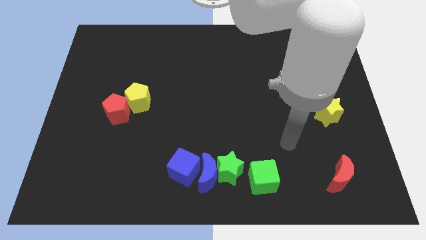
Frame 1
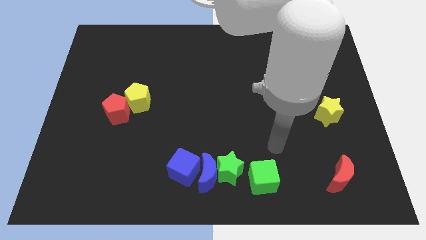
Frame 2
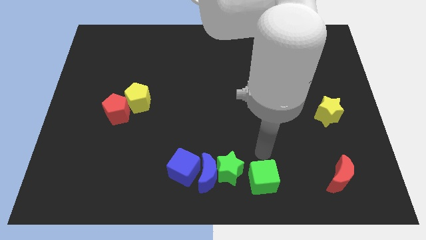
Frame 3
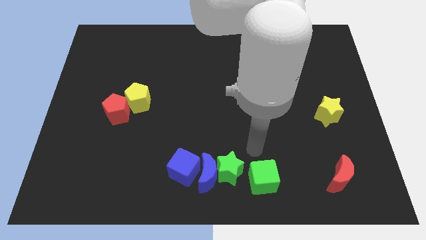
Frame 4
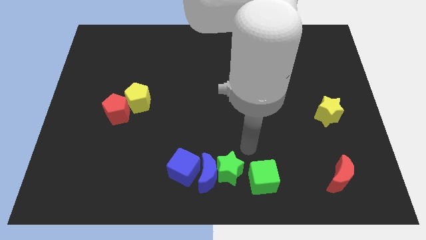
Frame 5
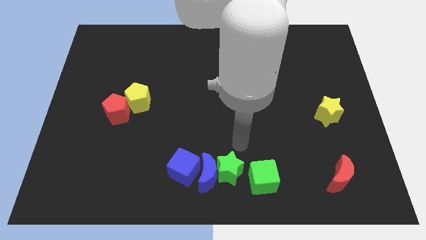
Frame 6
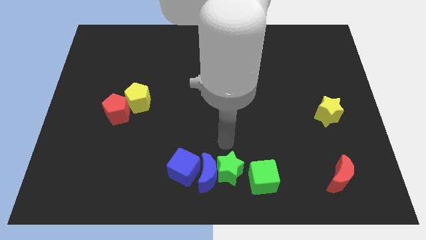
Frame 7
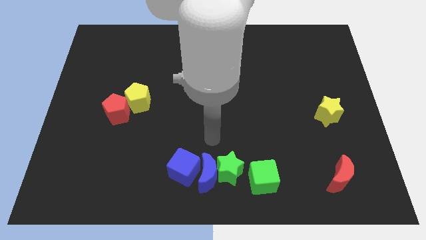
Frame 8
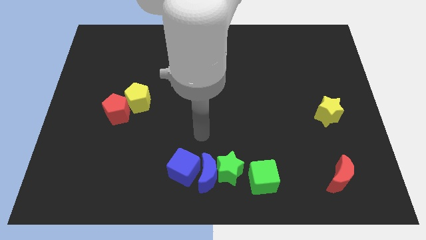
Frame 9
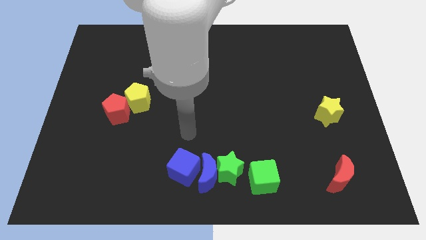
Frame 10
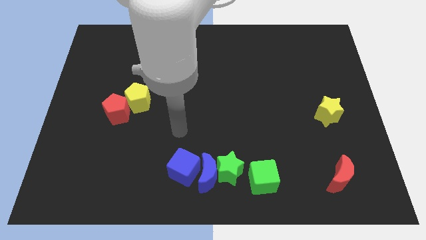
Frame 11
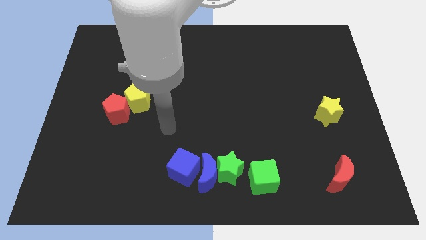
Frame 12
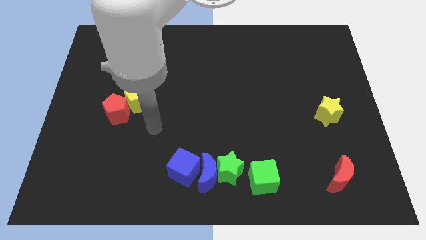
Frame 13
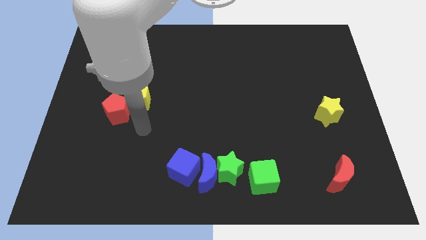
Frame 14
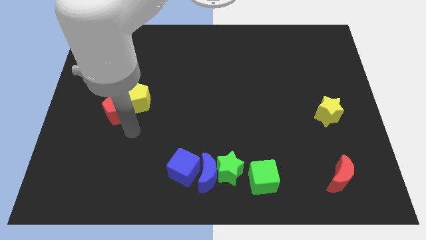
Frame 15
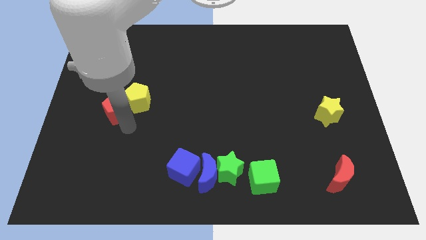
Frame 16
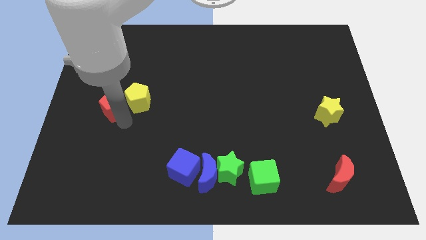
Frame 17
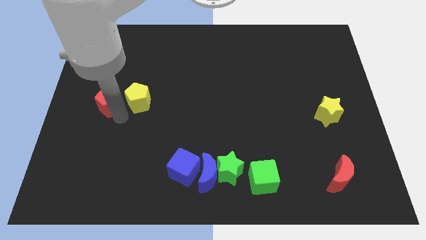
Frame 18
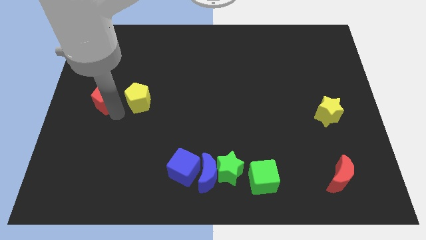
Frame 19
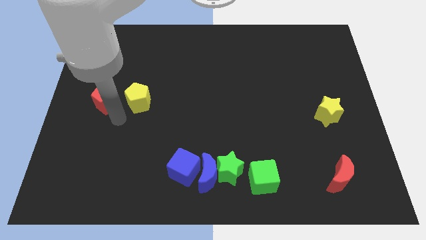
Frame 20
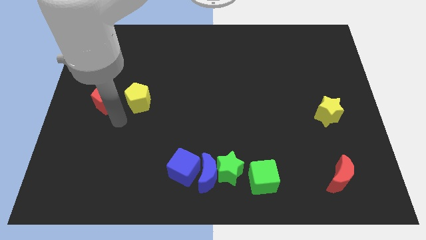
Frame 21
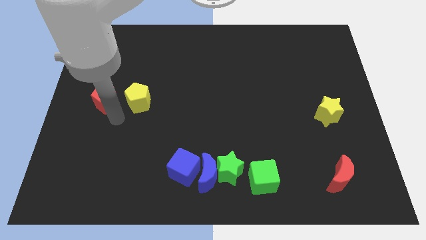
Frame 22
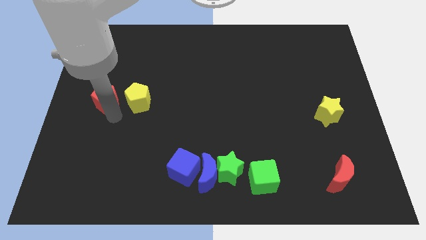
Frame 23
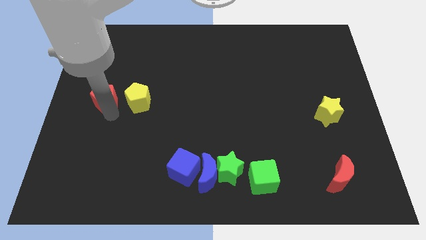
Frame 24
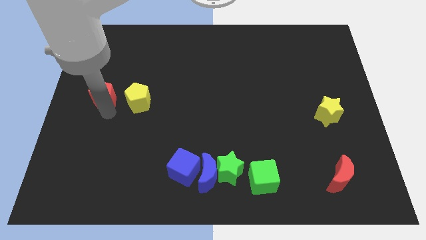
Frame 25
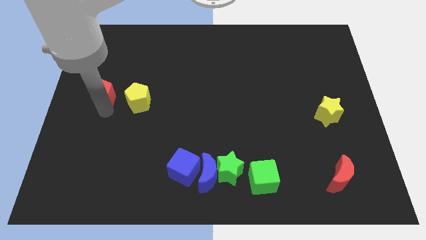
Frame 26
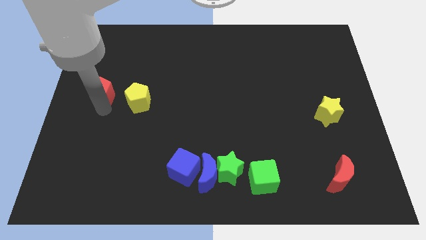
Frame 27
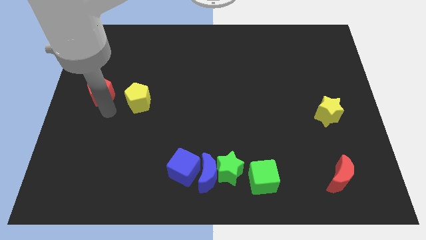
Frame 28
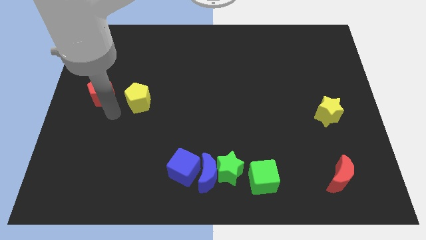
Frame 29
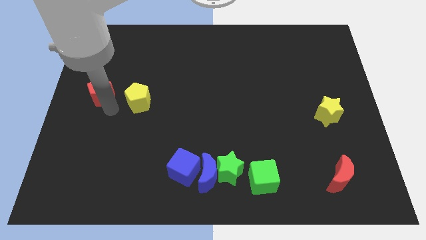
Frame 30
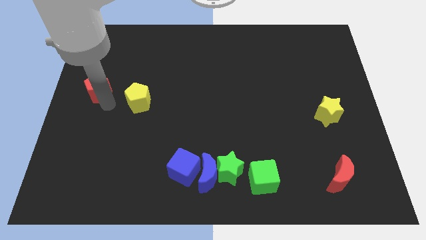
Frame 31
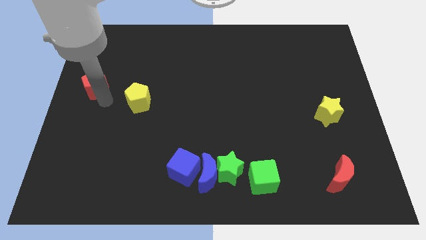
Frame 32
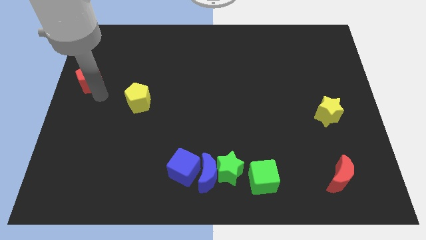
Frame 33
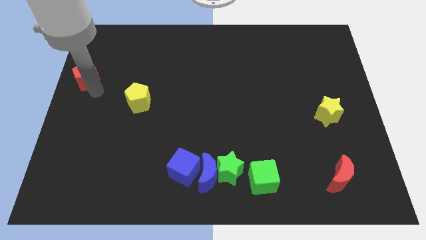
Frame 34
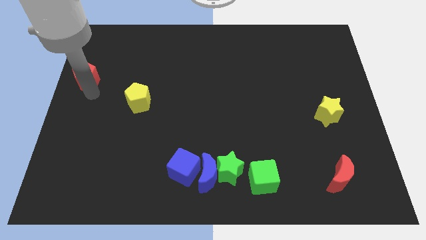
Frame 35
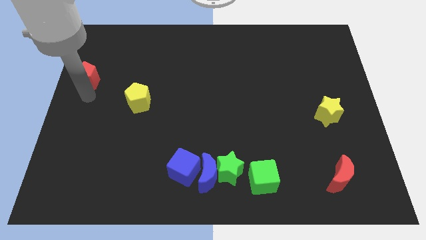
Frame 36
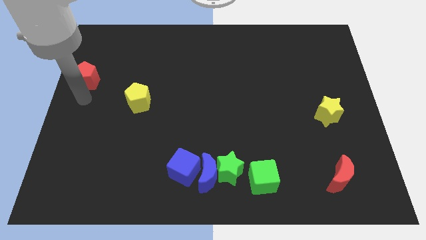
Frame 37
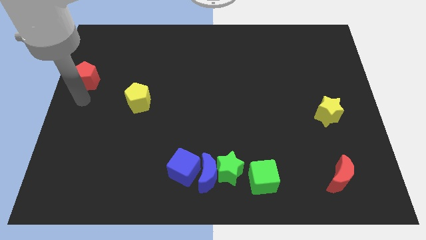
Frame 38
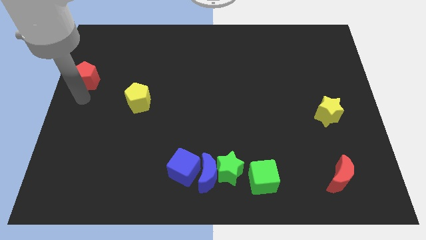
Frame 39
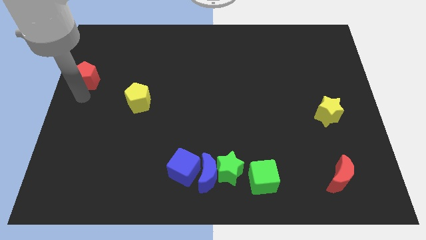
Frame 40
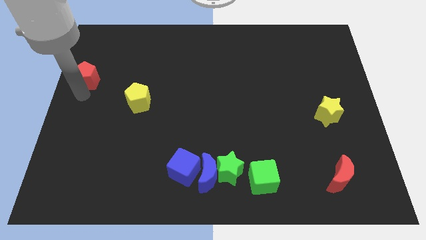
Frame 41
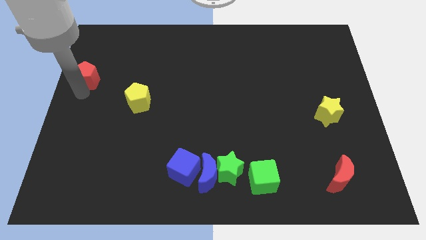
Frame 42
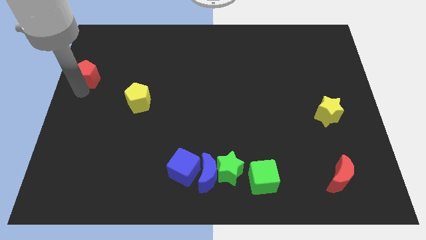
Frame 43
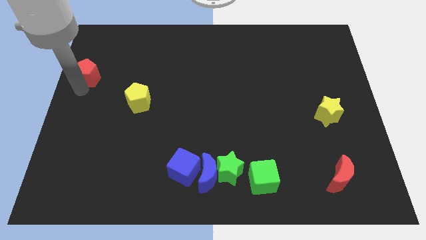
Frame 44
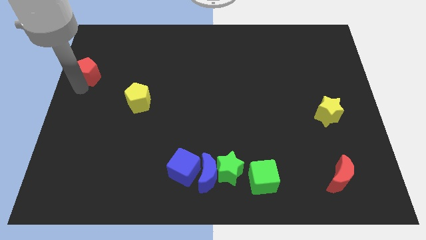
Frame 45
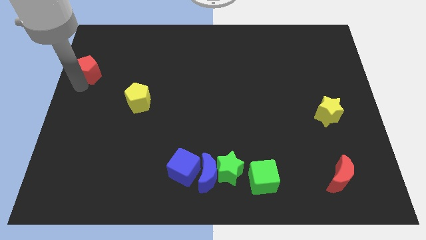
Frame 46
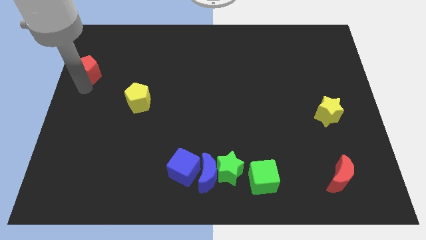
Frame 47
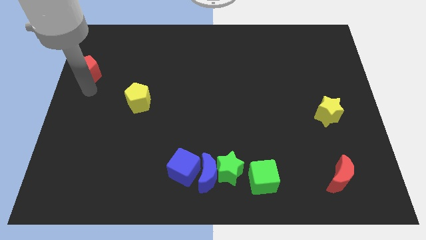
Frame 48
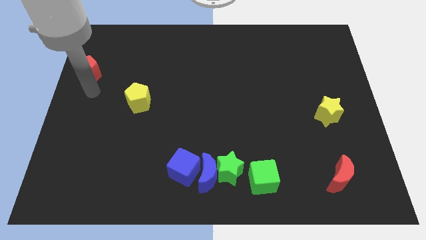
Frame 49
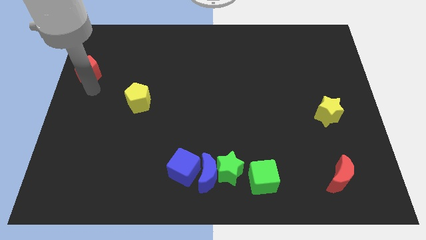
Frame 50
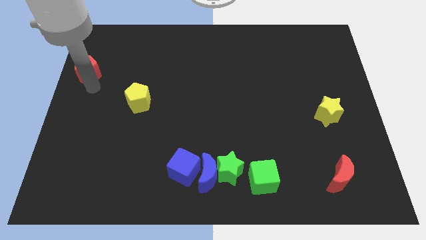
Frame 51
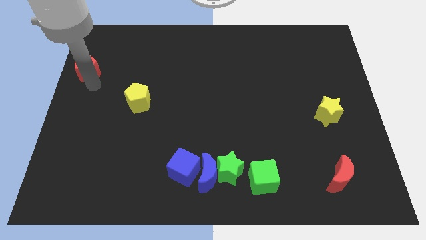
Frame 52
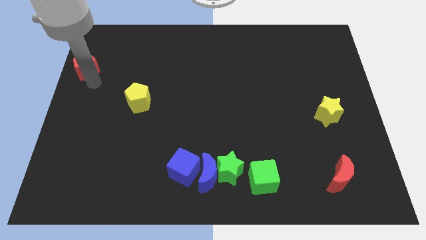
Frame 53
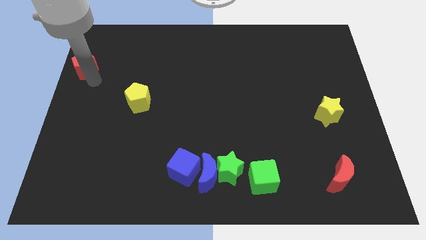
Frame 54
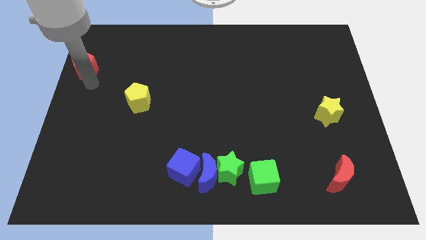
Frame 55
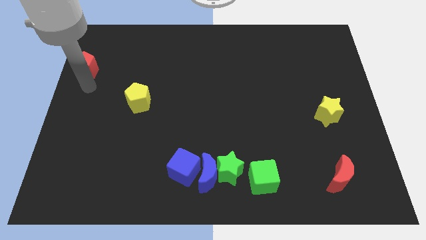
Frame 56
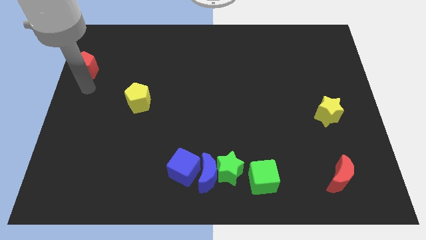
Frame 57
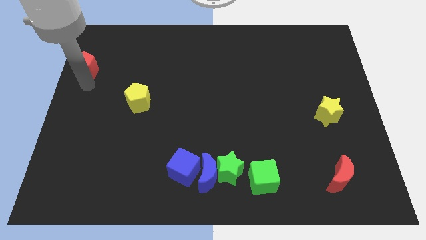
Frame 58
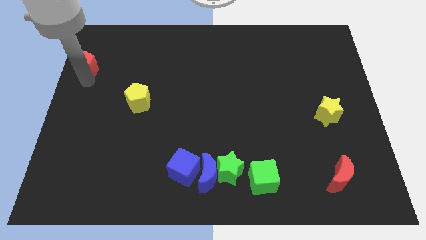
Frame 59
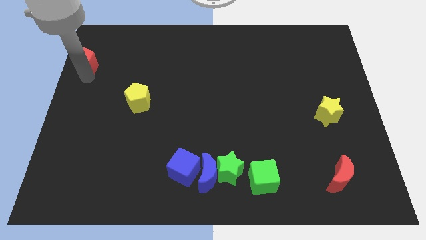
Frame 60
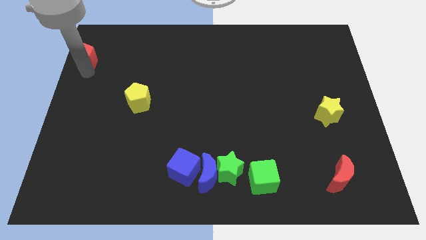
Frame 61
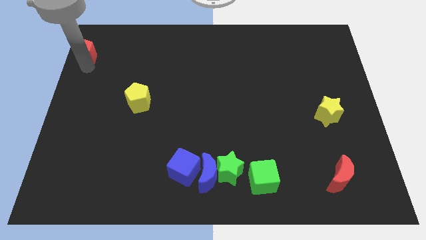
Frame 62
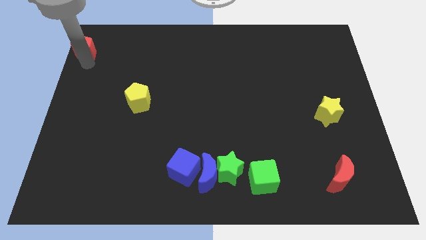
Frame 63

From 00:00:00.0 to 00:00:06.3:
slide the red pentagon to the top left of the board
